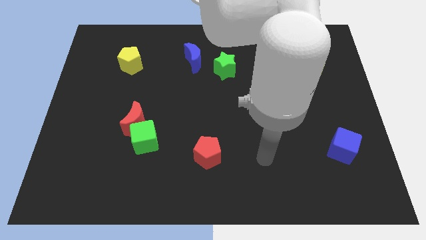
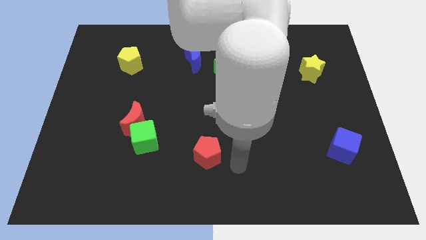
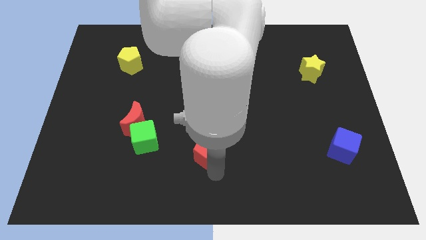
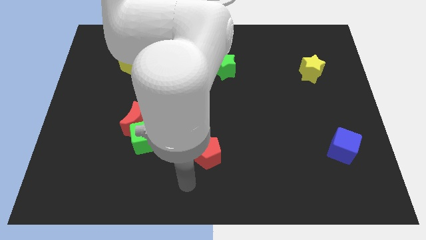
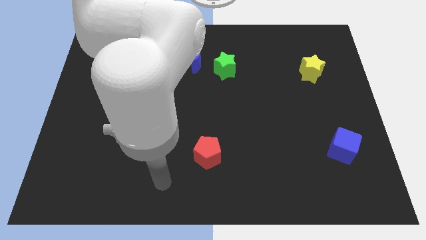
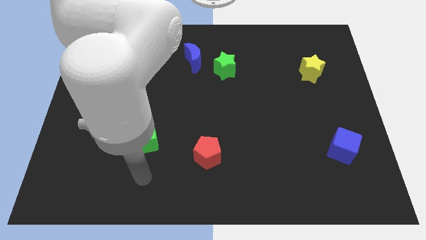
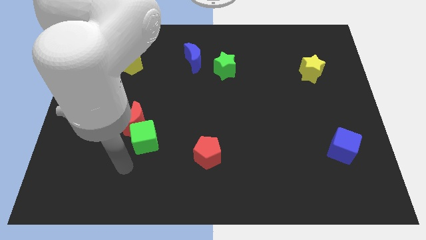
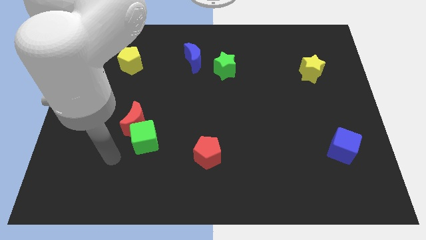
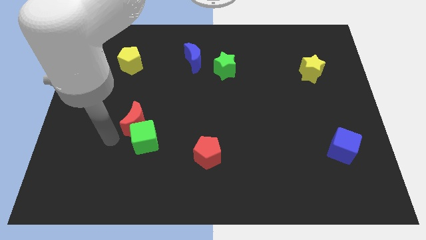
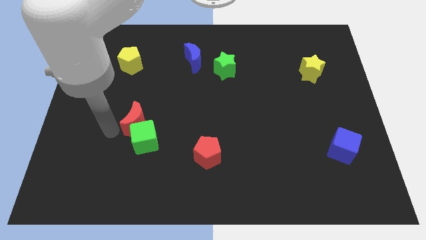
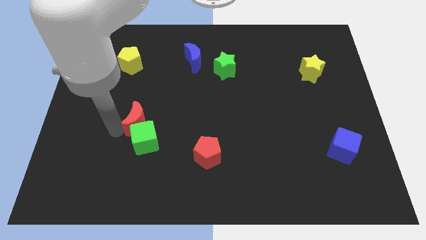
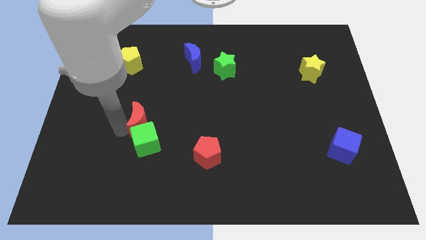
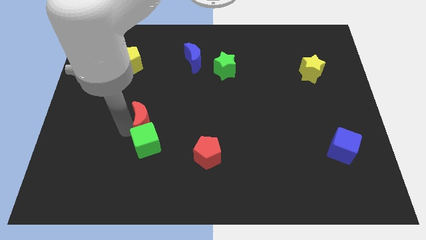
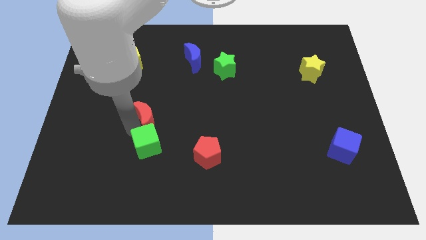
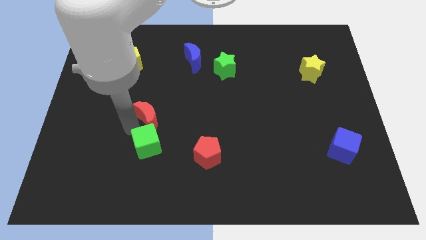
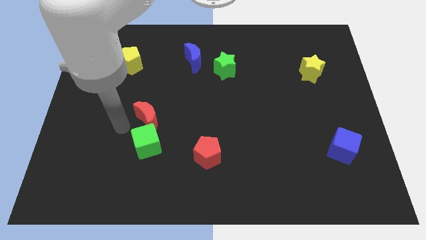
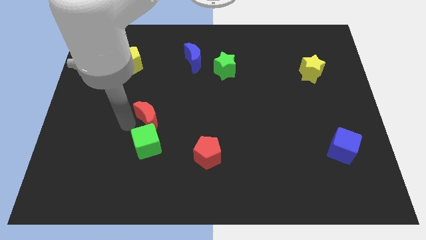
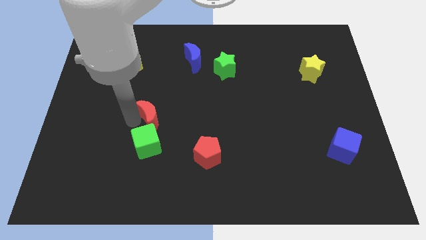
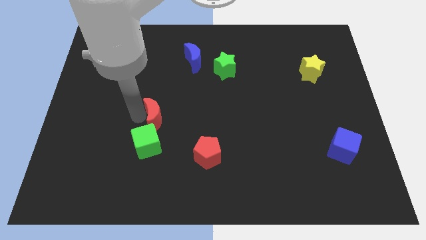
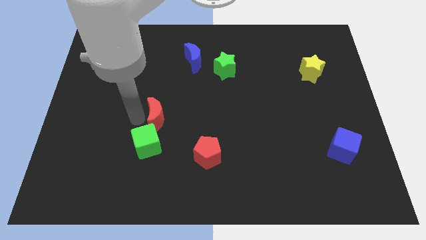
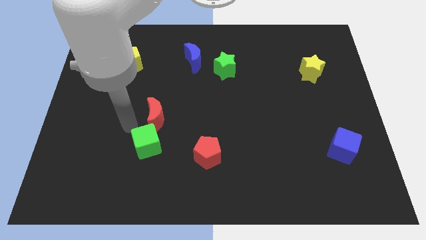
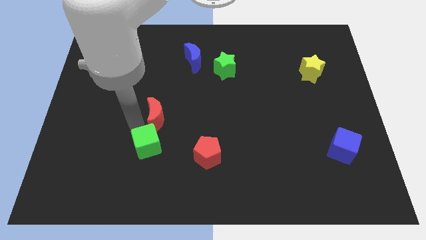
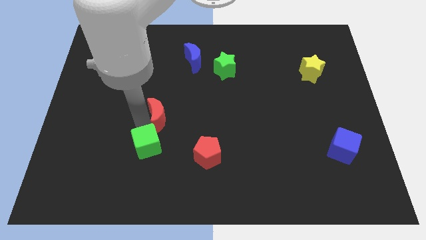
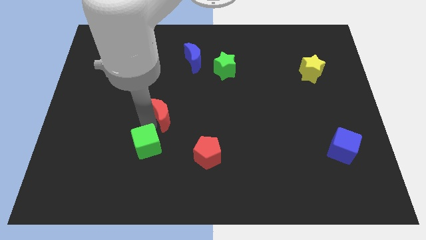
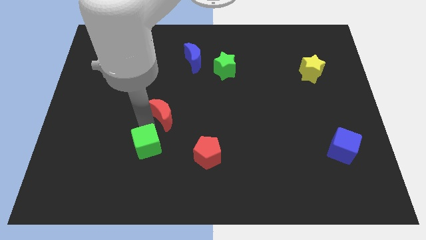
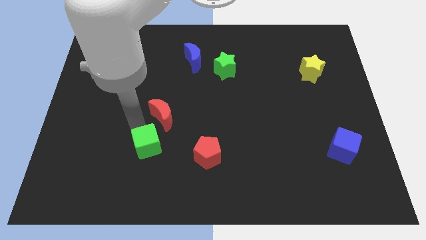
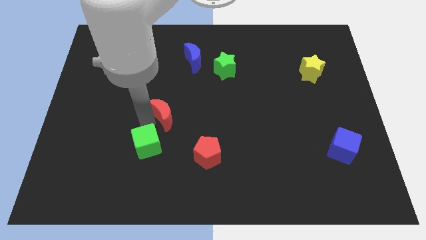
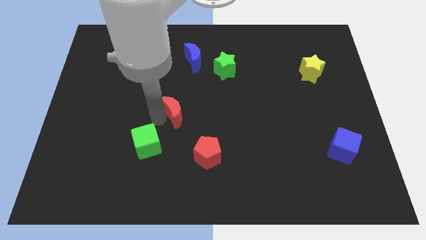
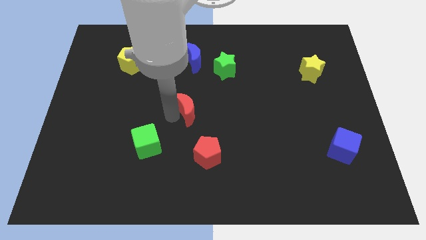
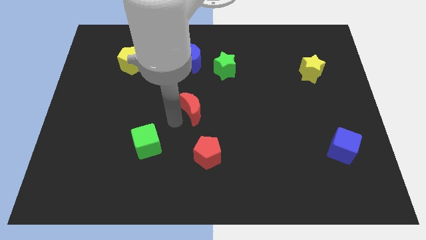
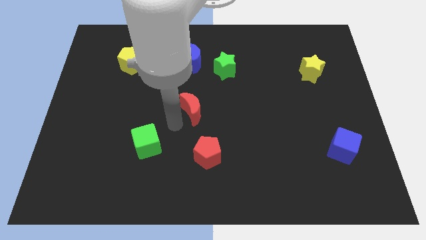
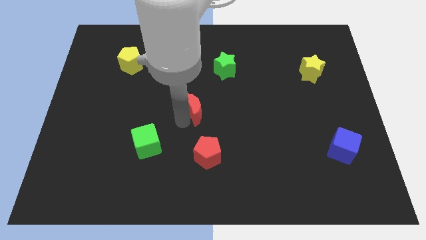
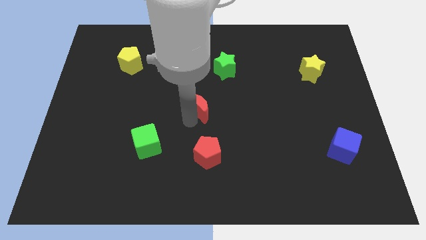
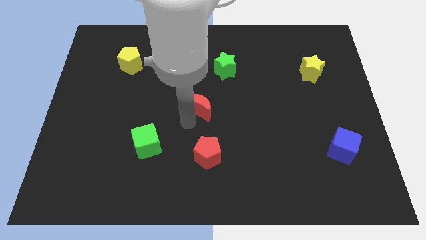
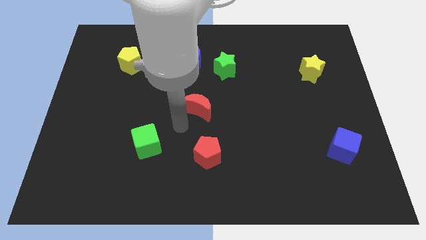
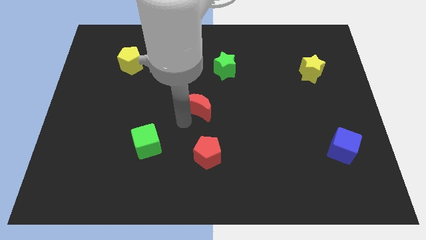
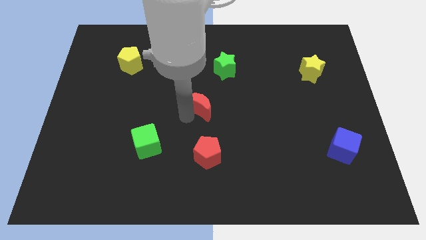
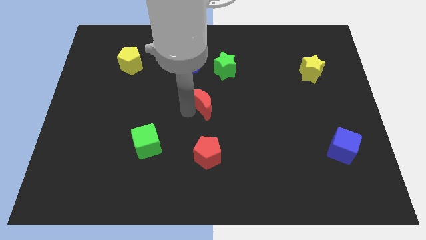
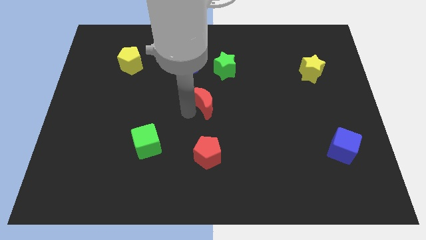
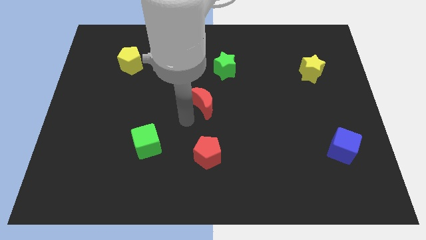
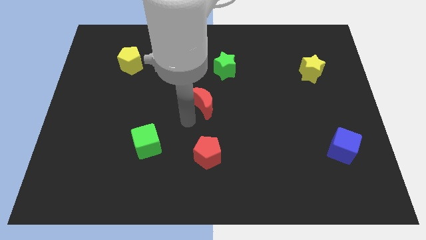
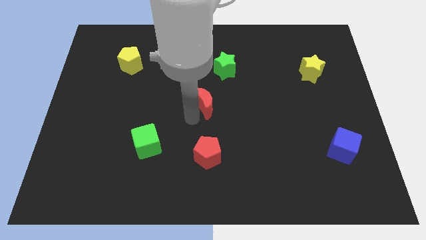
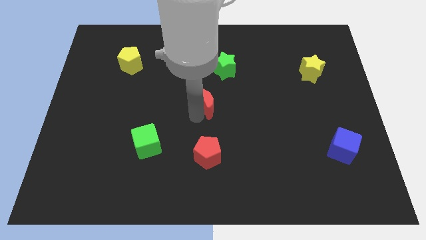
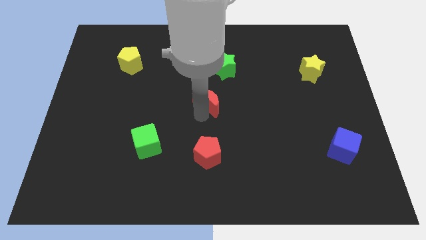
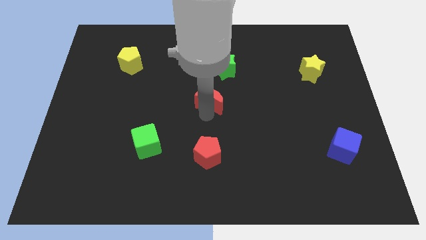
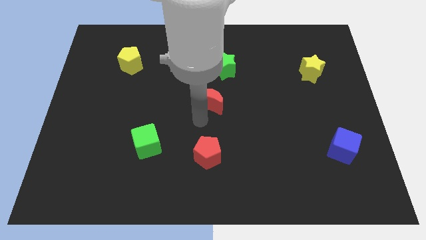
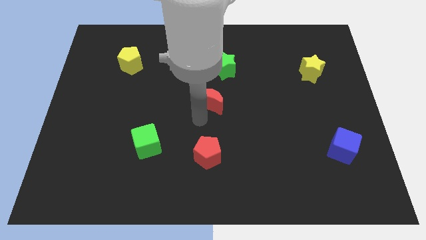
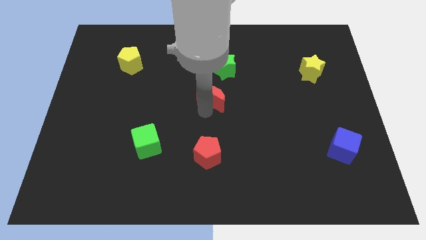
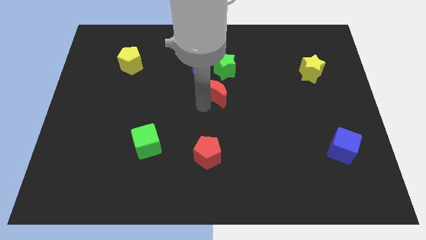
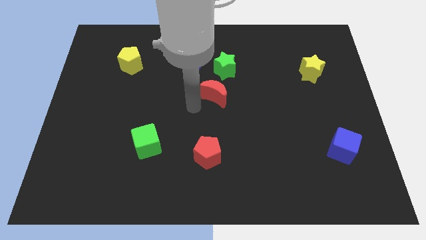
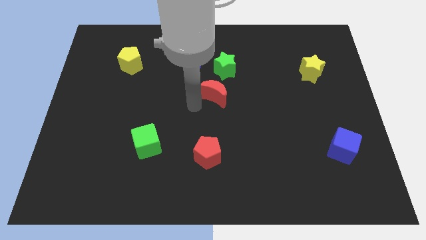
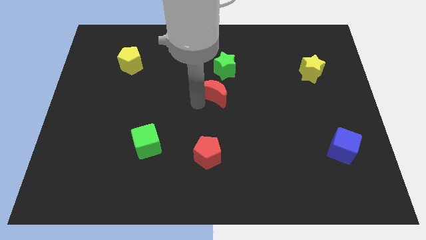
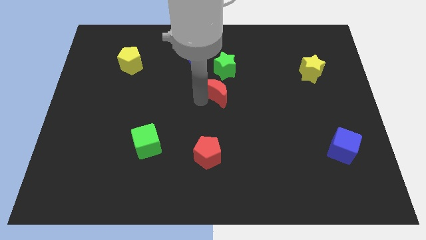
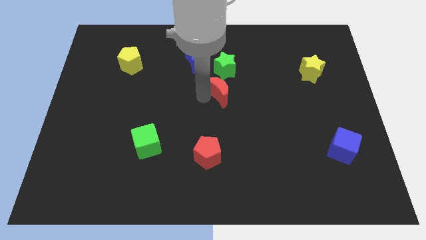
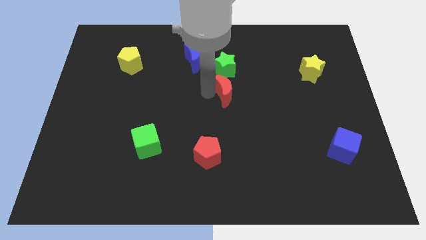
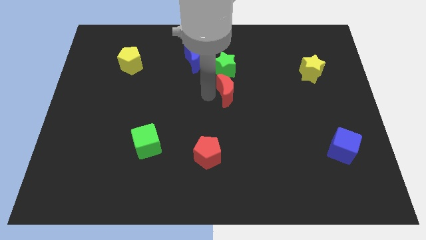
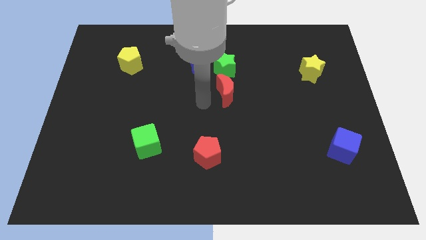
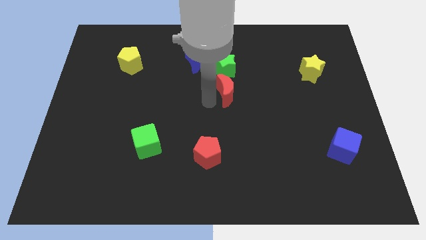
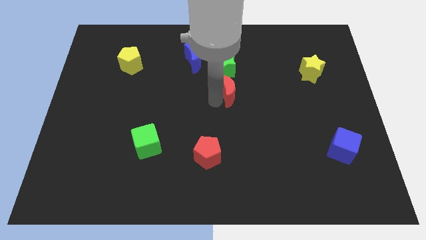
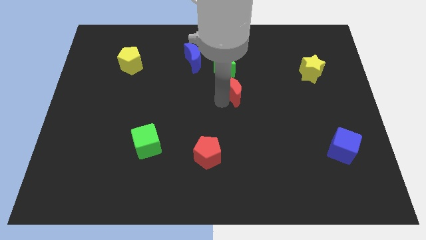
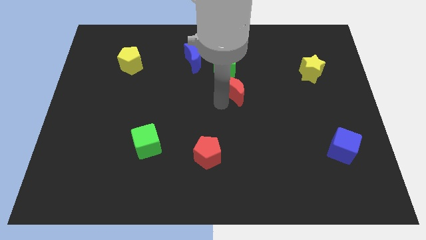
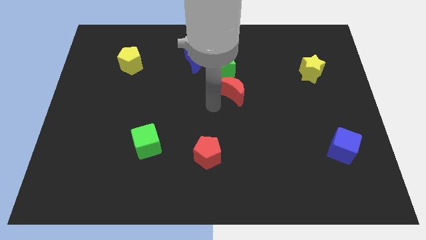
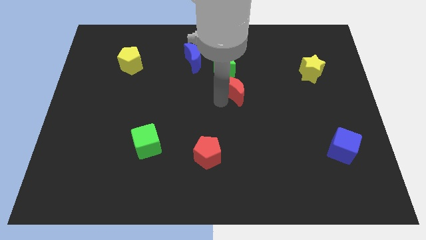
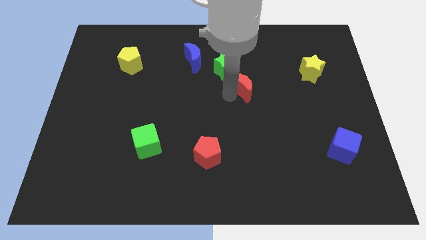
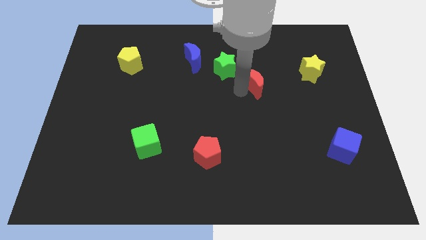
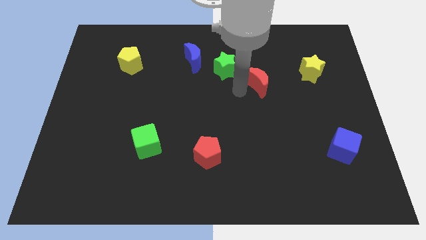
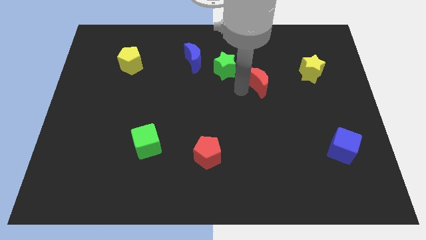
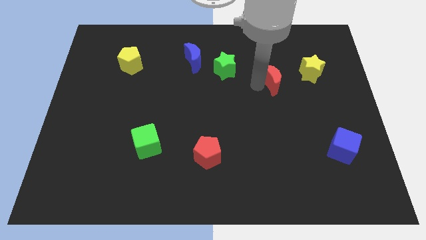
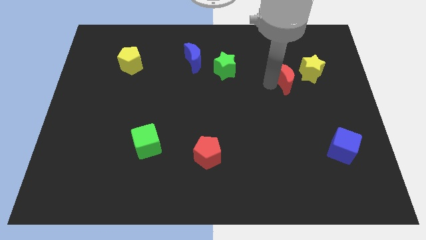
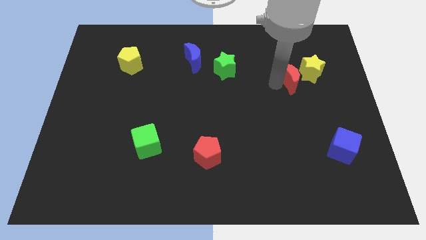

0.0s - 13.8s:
move the red moon close to the yellow star

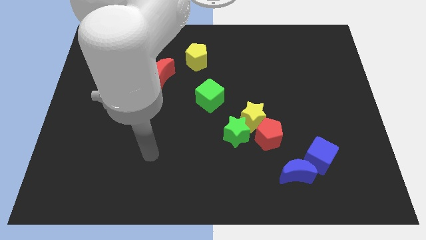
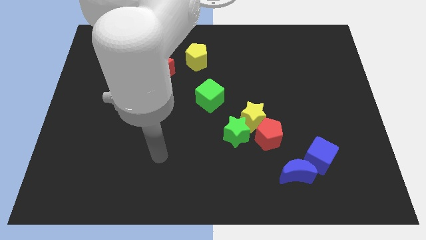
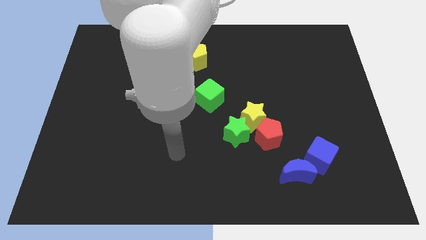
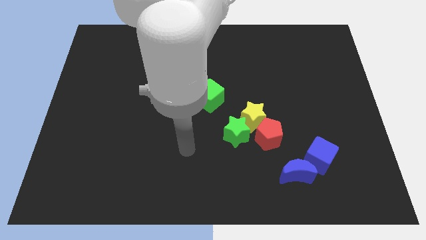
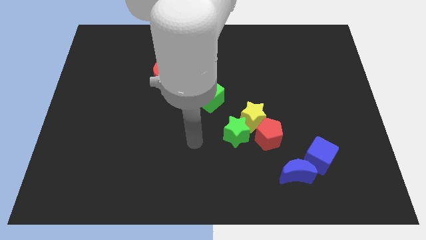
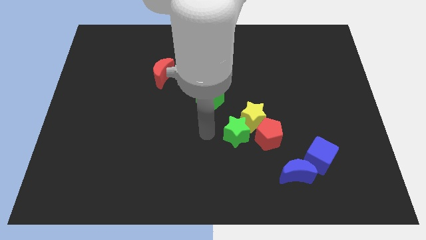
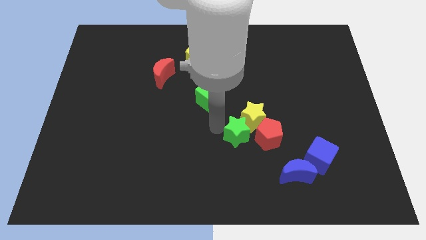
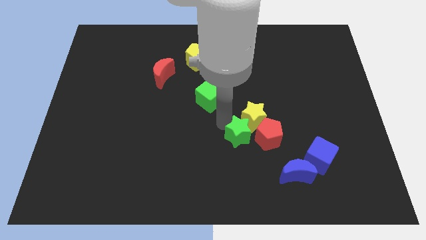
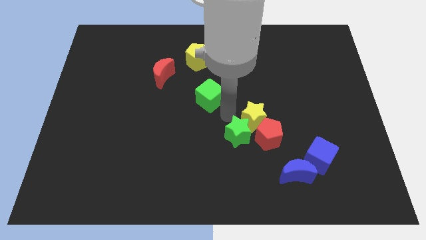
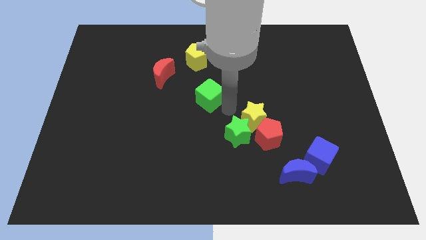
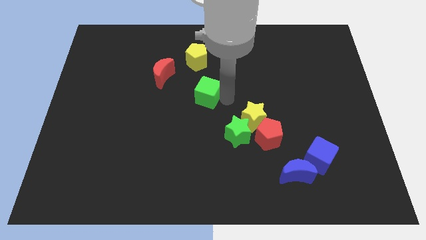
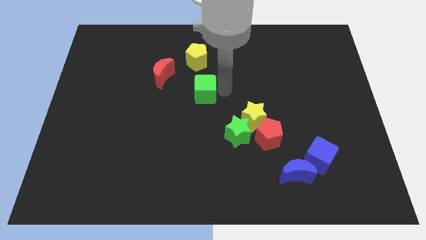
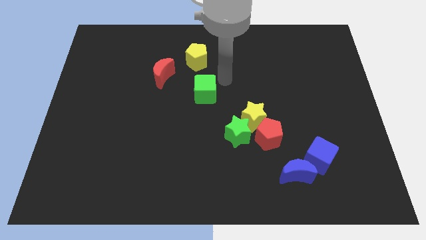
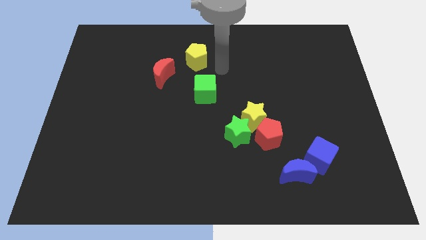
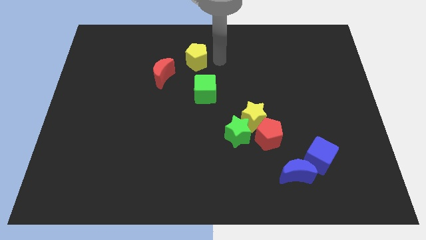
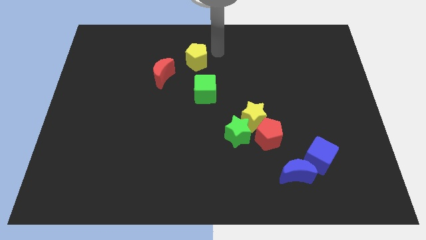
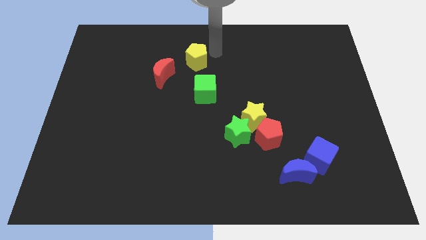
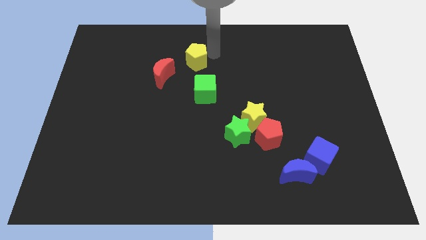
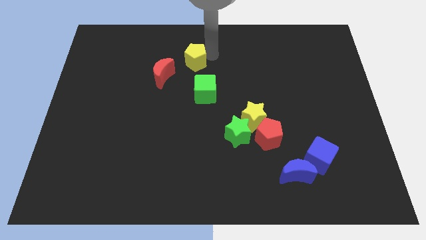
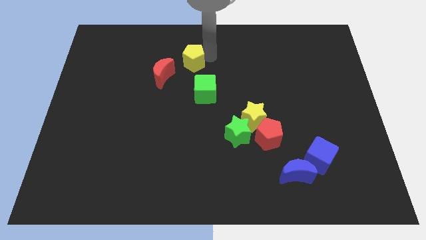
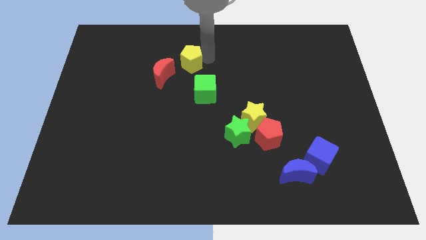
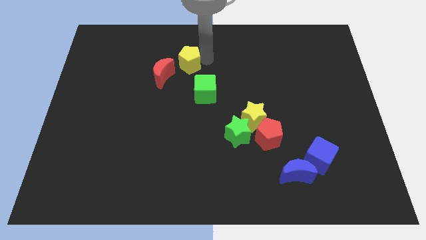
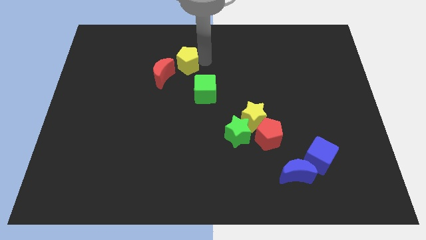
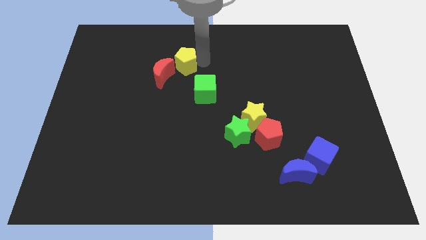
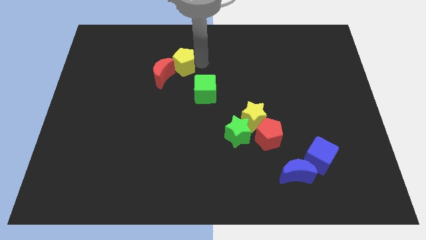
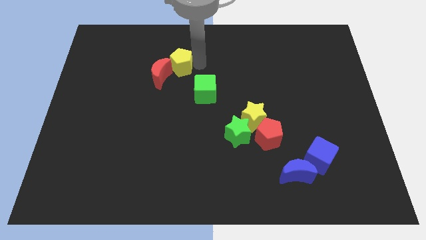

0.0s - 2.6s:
push the yellow pentagon towards the red moon
